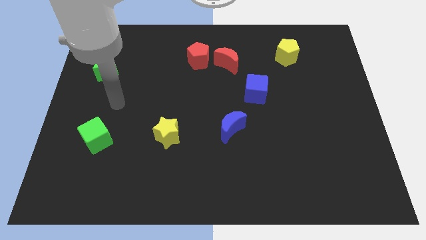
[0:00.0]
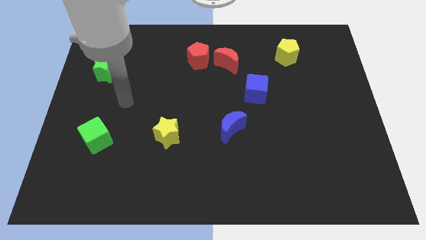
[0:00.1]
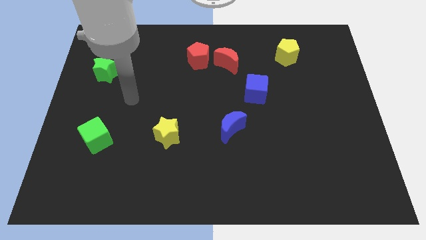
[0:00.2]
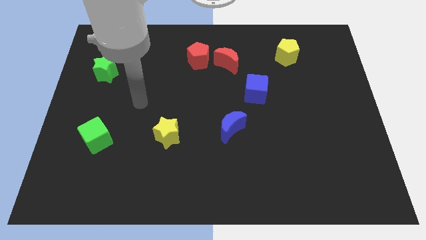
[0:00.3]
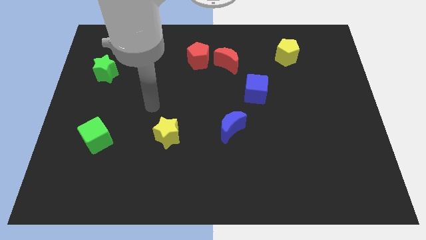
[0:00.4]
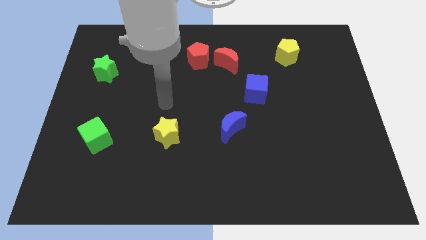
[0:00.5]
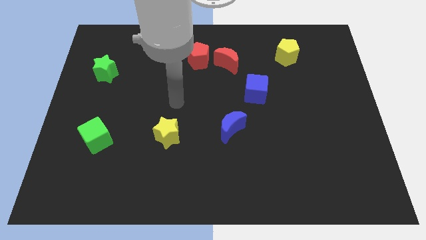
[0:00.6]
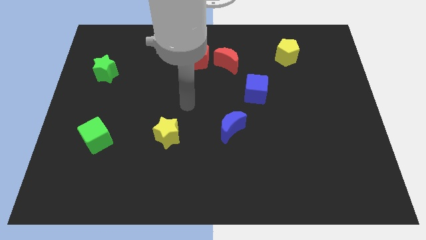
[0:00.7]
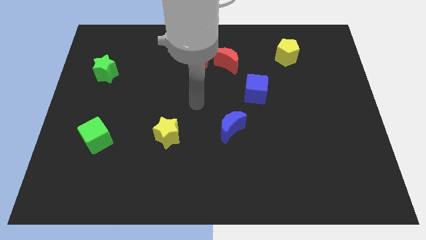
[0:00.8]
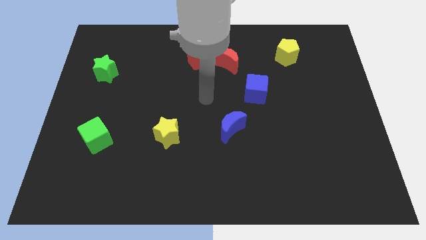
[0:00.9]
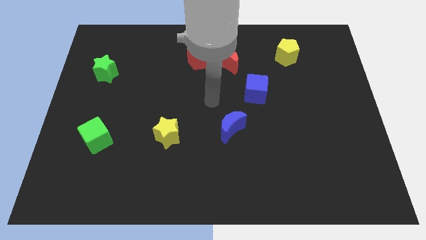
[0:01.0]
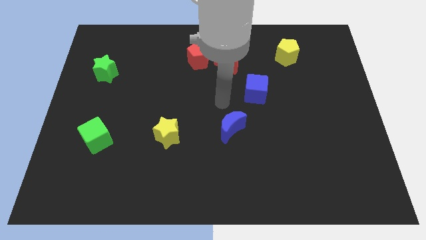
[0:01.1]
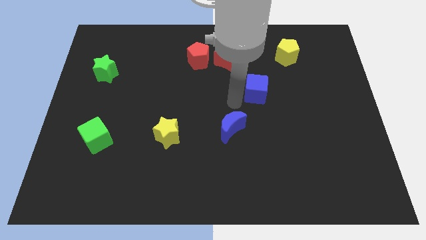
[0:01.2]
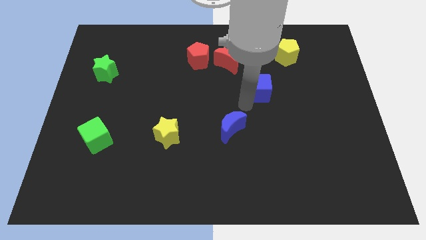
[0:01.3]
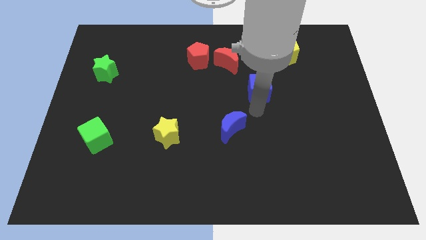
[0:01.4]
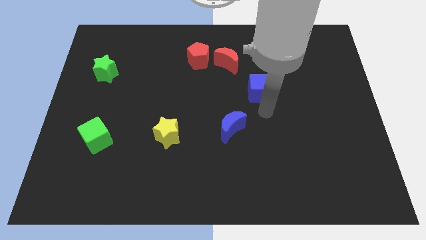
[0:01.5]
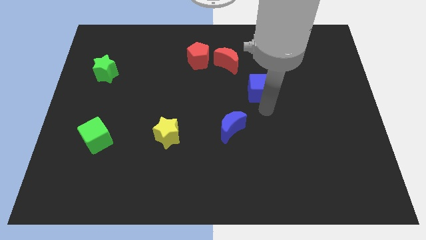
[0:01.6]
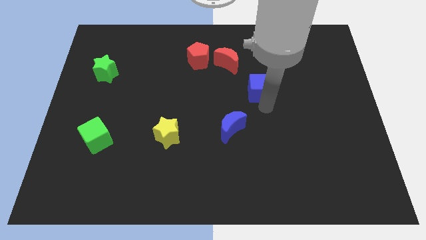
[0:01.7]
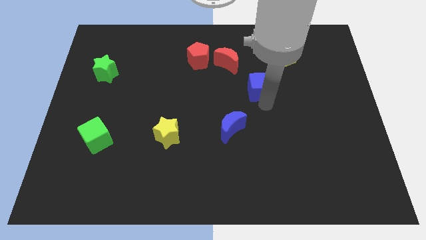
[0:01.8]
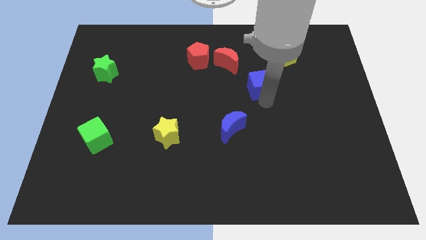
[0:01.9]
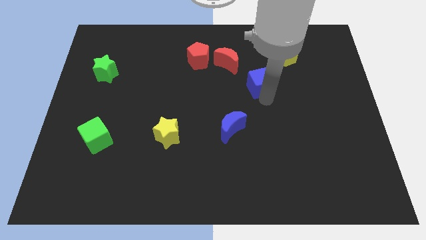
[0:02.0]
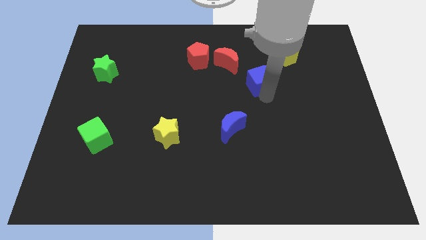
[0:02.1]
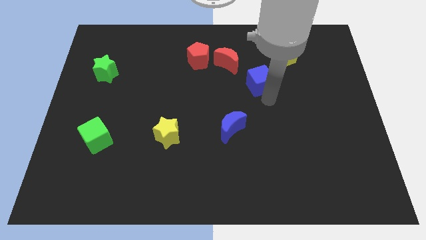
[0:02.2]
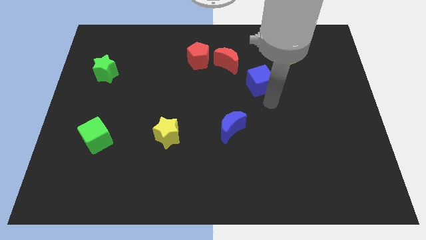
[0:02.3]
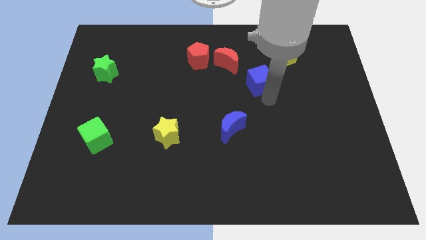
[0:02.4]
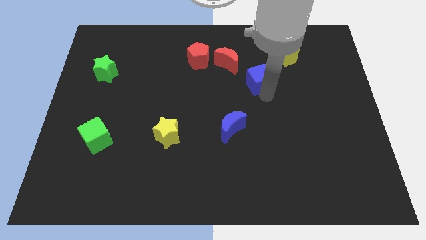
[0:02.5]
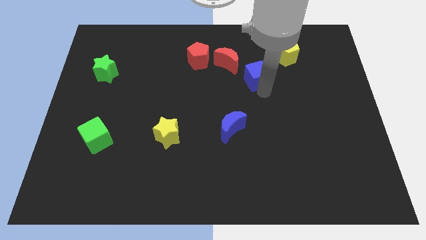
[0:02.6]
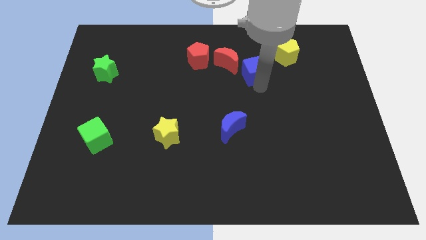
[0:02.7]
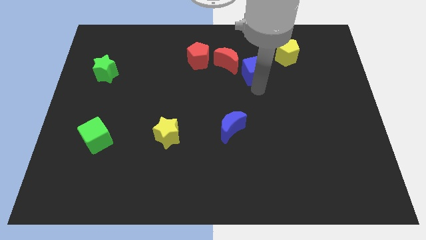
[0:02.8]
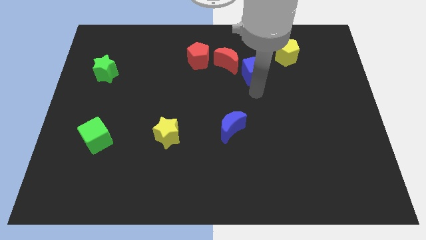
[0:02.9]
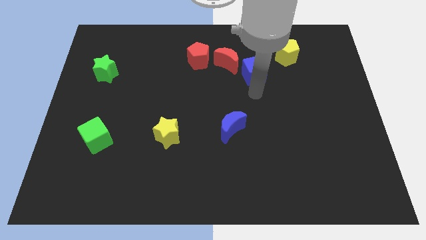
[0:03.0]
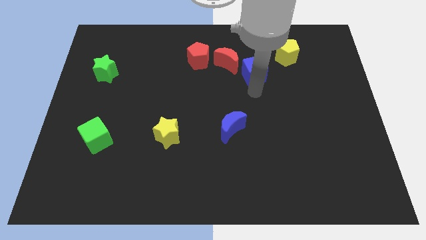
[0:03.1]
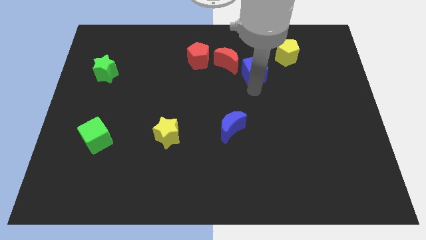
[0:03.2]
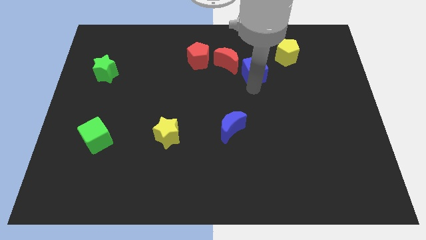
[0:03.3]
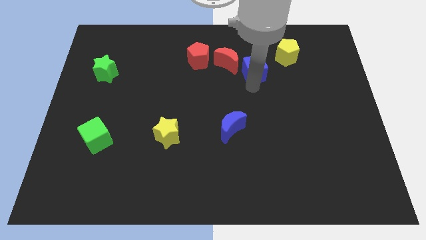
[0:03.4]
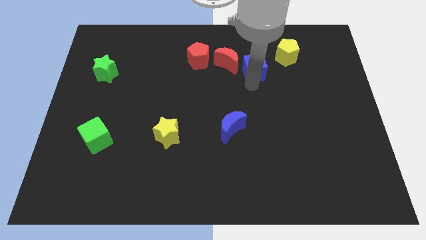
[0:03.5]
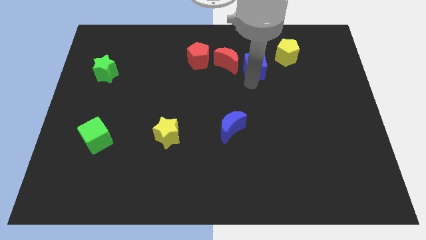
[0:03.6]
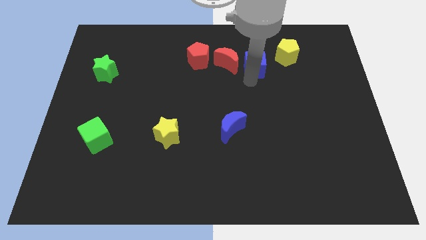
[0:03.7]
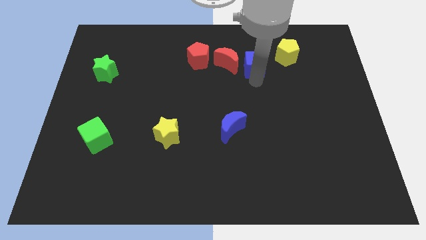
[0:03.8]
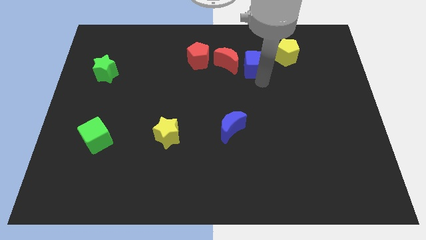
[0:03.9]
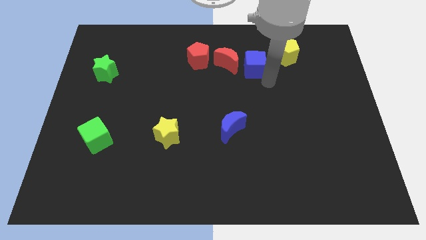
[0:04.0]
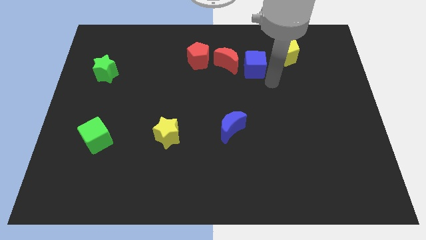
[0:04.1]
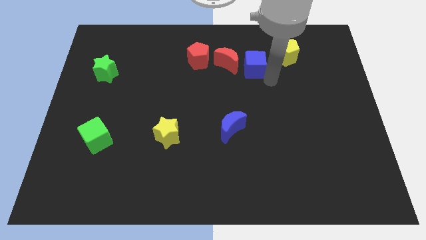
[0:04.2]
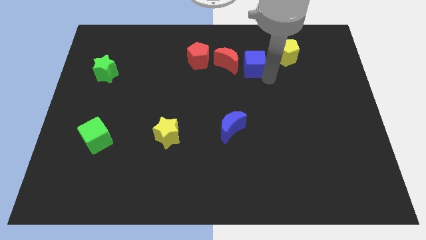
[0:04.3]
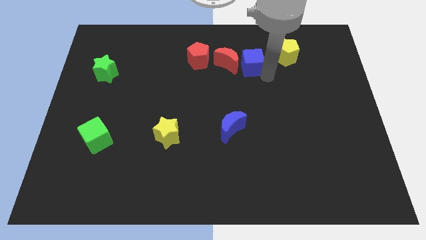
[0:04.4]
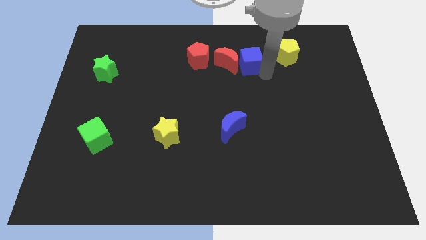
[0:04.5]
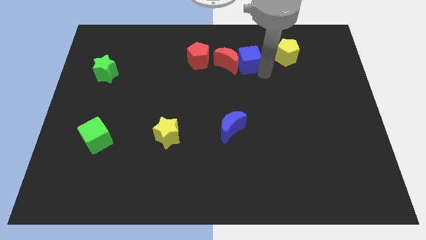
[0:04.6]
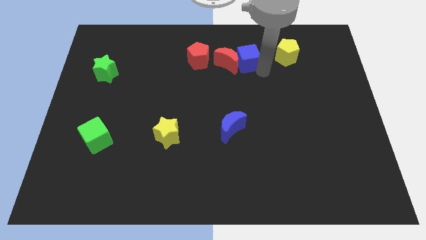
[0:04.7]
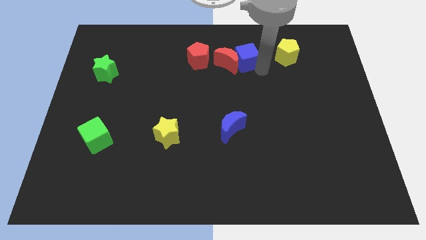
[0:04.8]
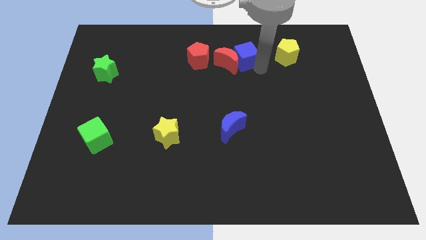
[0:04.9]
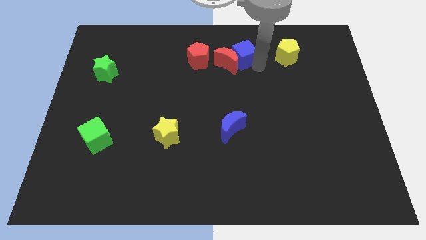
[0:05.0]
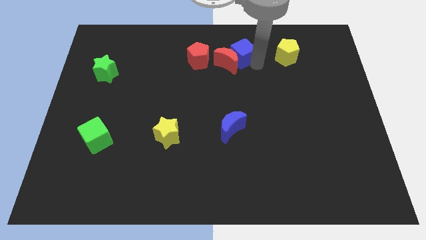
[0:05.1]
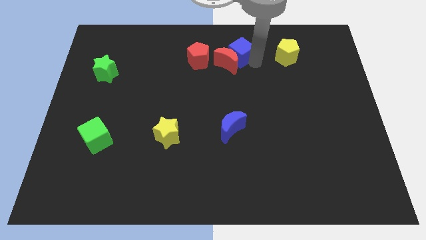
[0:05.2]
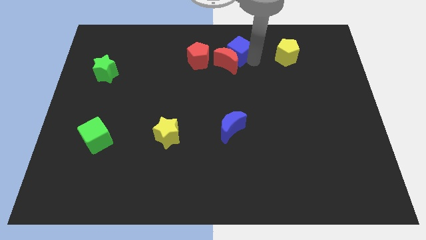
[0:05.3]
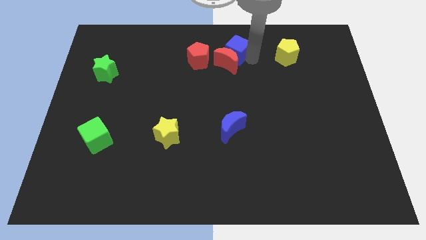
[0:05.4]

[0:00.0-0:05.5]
slide the blue cube to the top side

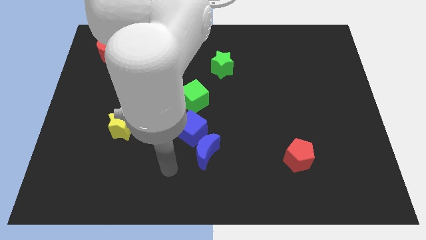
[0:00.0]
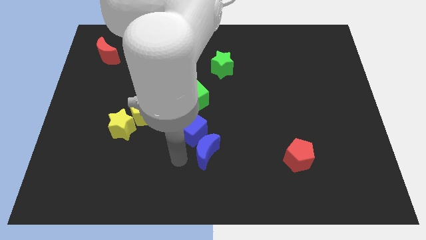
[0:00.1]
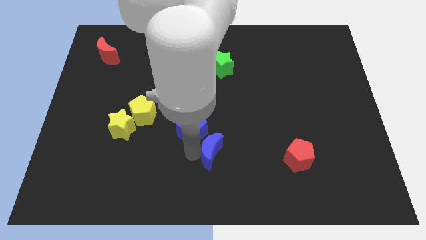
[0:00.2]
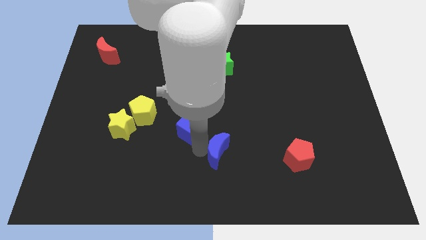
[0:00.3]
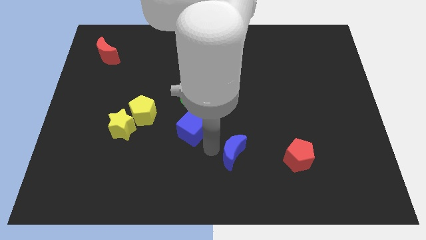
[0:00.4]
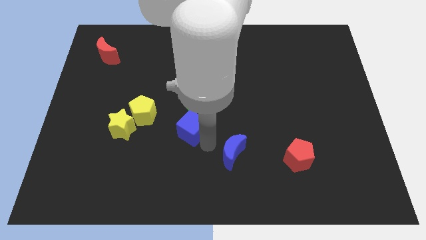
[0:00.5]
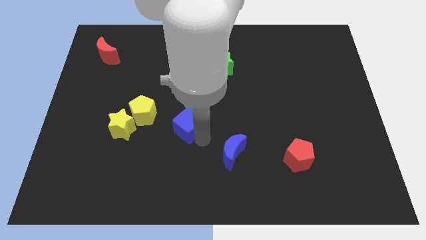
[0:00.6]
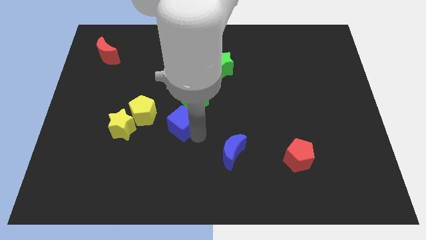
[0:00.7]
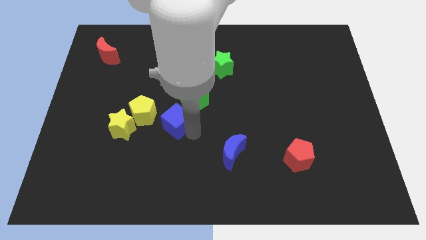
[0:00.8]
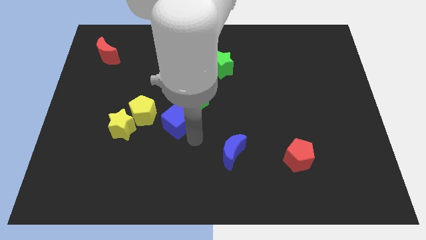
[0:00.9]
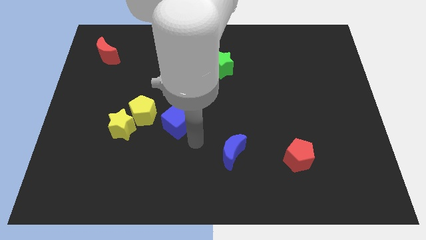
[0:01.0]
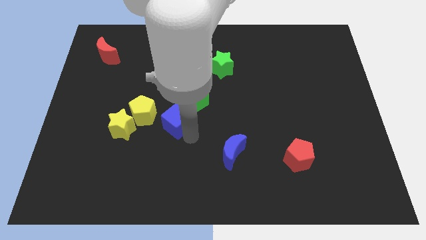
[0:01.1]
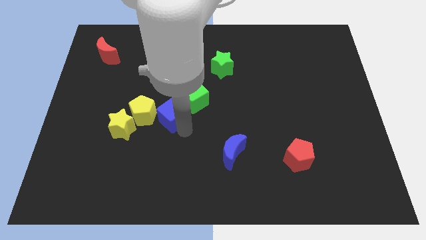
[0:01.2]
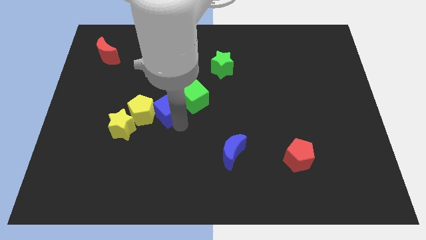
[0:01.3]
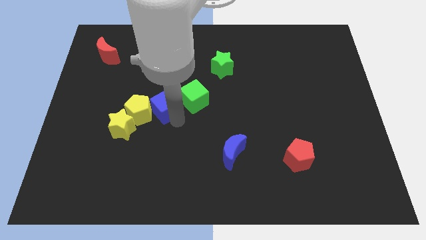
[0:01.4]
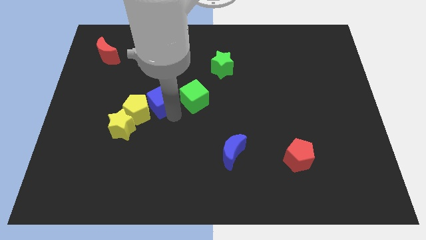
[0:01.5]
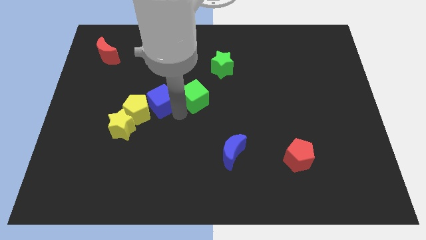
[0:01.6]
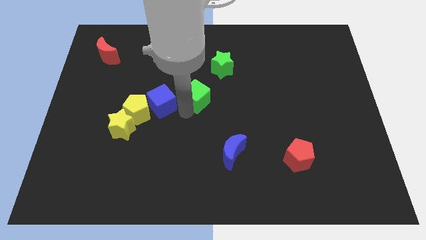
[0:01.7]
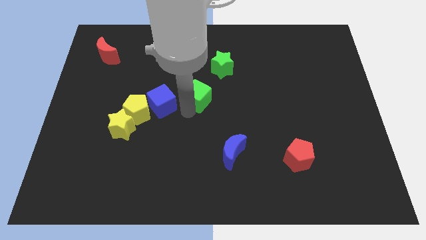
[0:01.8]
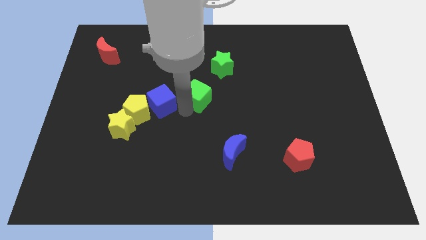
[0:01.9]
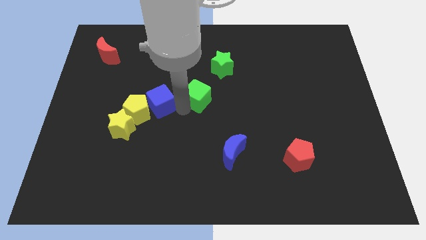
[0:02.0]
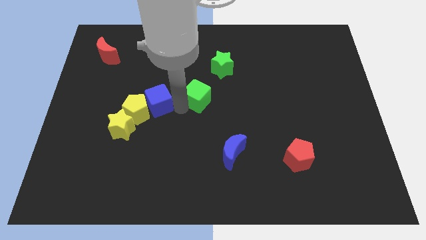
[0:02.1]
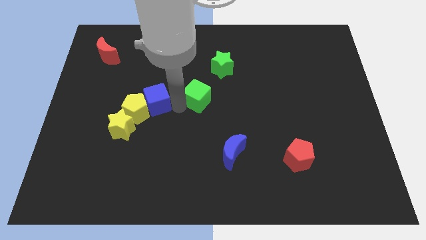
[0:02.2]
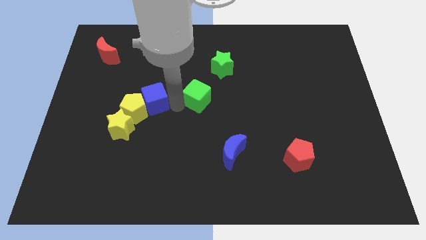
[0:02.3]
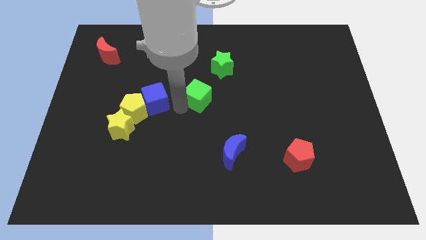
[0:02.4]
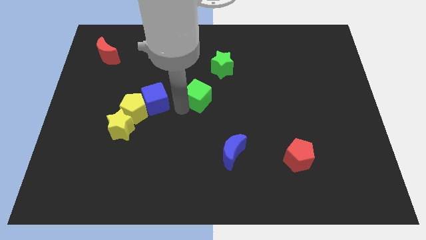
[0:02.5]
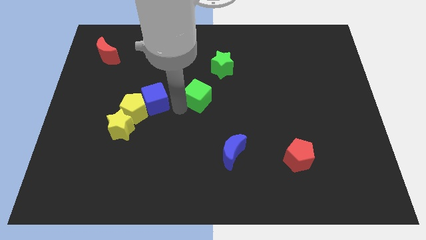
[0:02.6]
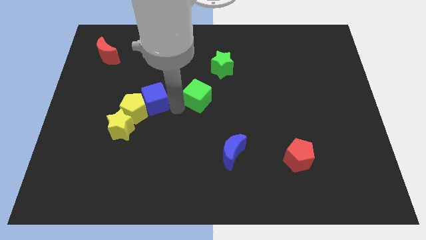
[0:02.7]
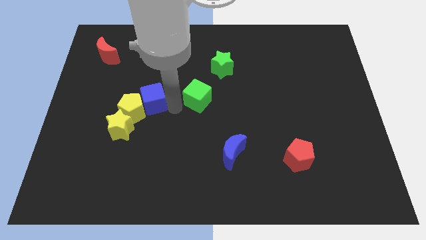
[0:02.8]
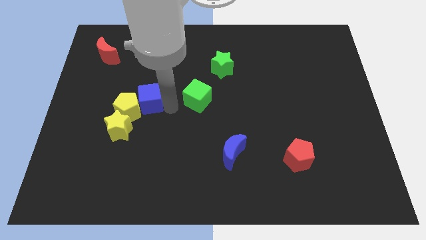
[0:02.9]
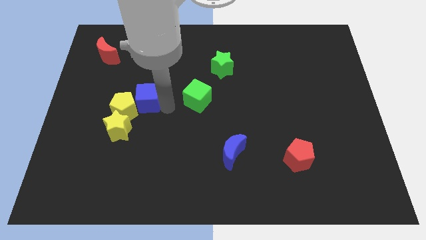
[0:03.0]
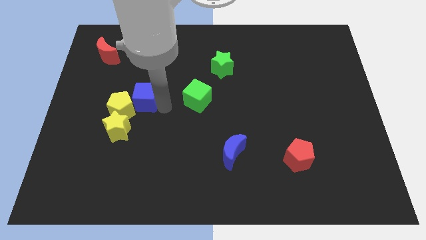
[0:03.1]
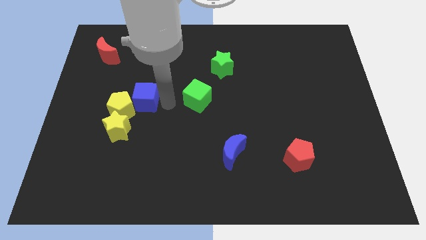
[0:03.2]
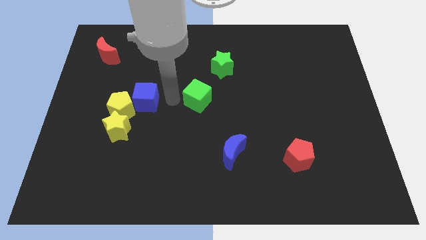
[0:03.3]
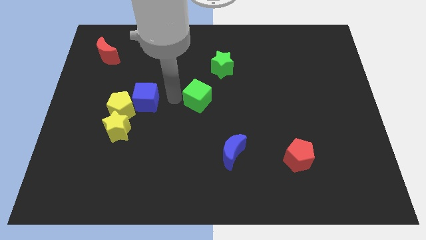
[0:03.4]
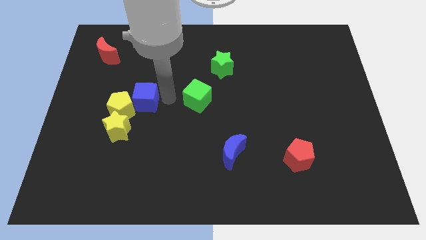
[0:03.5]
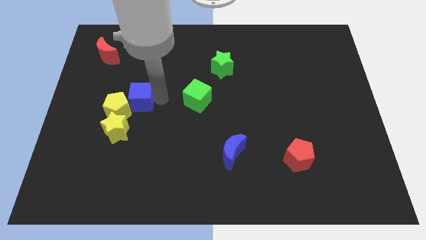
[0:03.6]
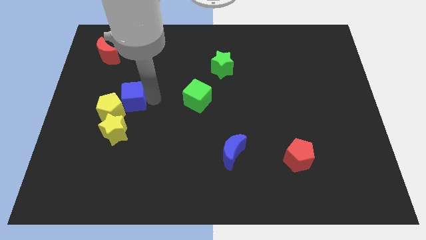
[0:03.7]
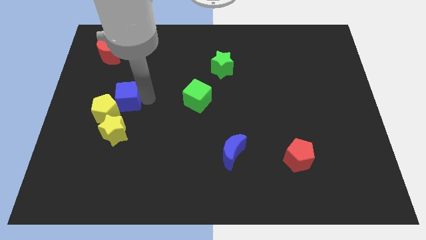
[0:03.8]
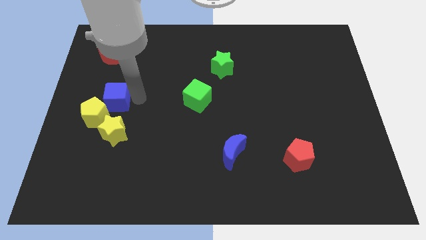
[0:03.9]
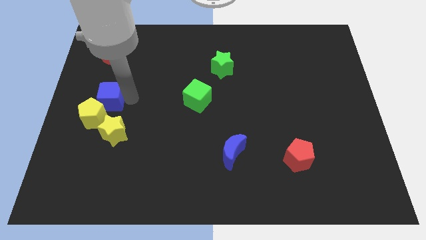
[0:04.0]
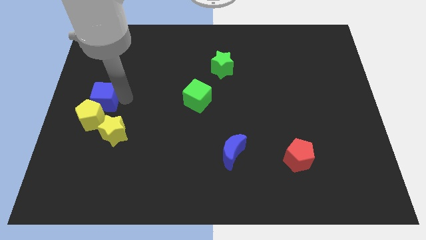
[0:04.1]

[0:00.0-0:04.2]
push the blue cube to the left side of the board
